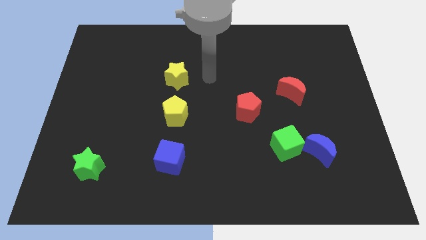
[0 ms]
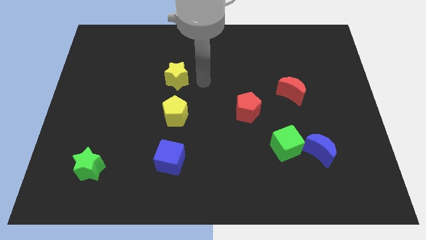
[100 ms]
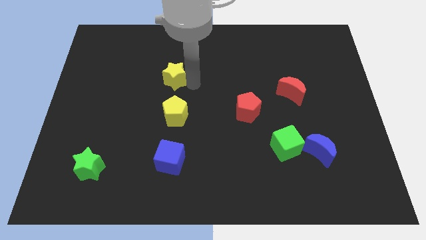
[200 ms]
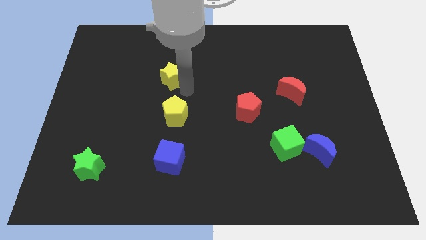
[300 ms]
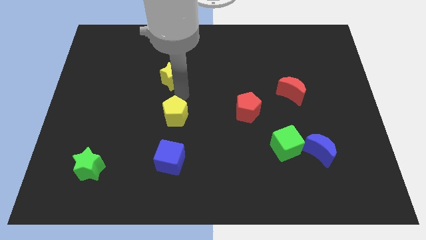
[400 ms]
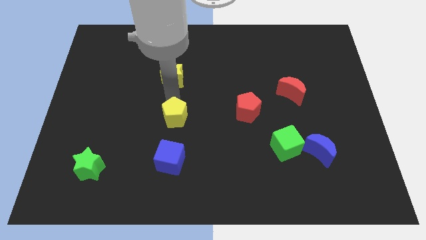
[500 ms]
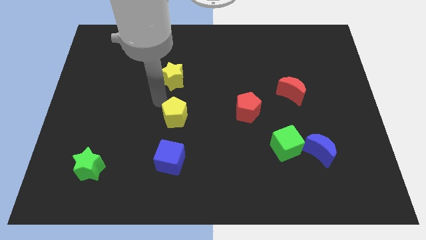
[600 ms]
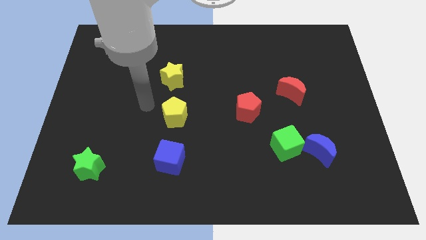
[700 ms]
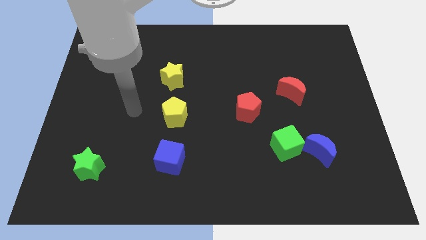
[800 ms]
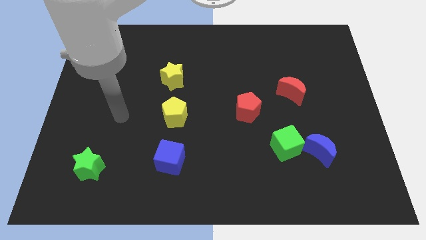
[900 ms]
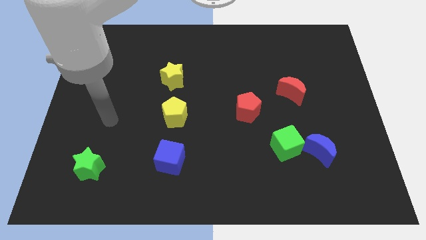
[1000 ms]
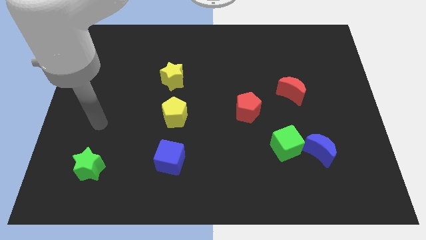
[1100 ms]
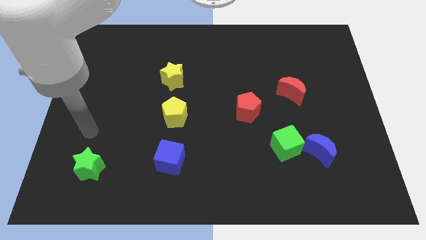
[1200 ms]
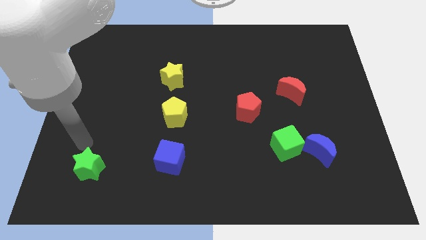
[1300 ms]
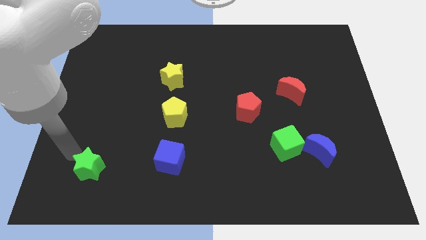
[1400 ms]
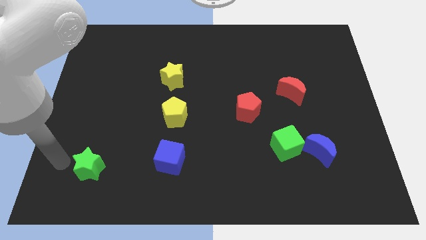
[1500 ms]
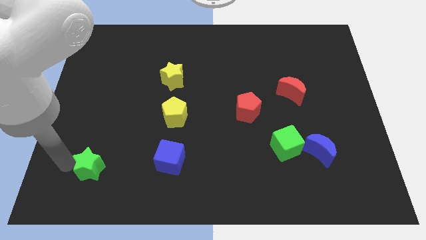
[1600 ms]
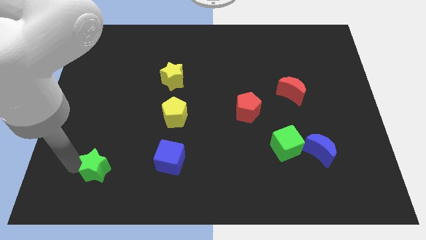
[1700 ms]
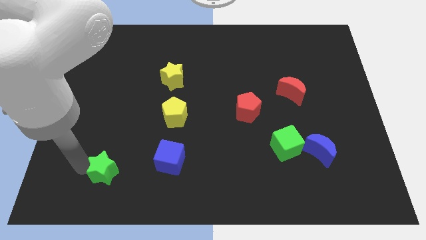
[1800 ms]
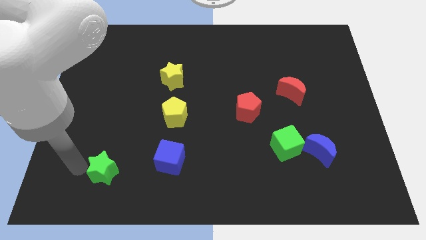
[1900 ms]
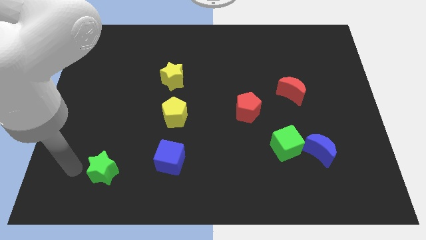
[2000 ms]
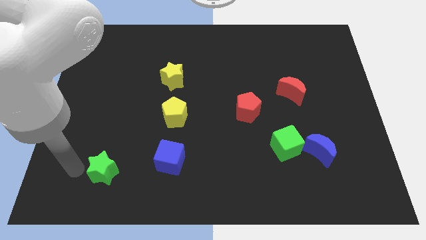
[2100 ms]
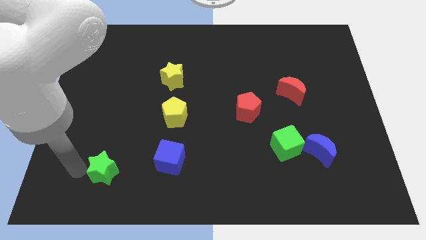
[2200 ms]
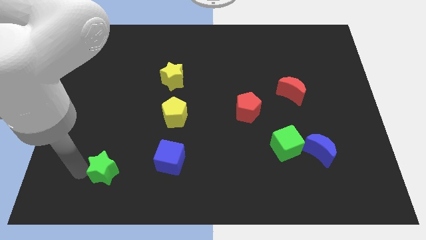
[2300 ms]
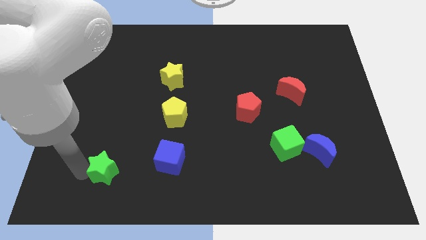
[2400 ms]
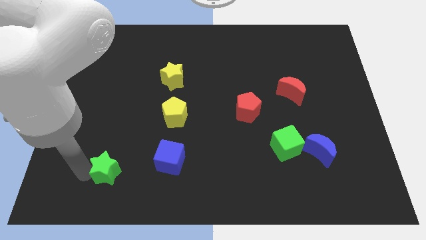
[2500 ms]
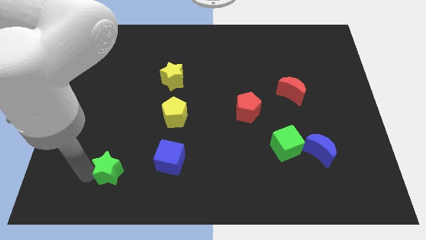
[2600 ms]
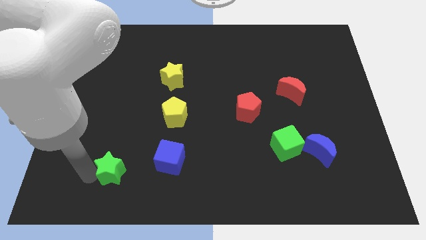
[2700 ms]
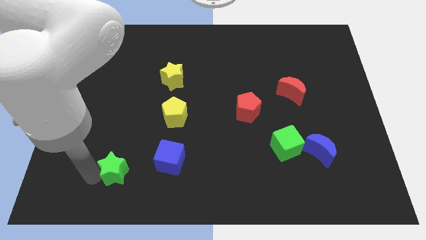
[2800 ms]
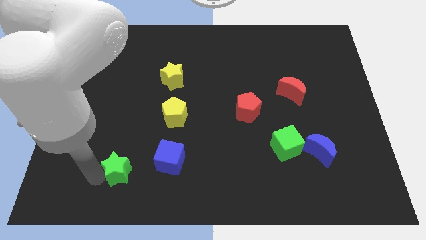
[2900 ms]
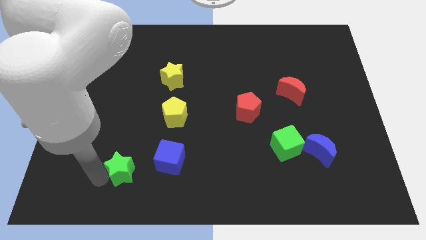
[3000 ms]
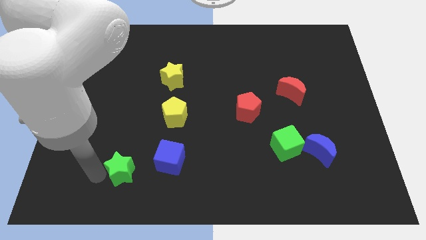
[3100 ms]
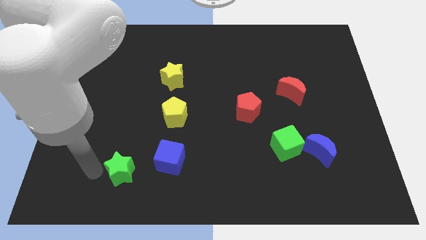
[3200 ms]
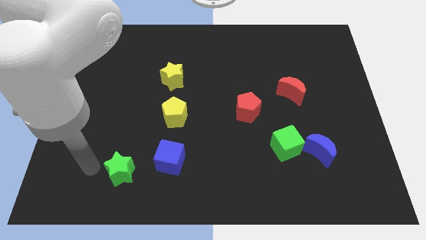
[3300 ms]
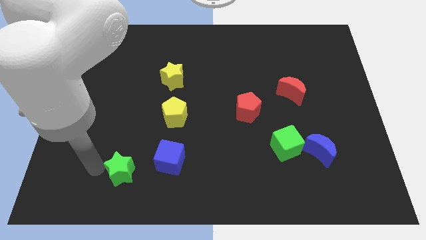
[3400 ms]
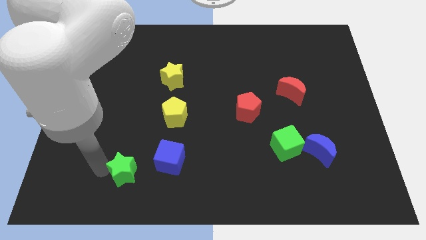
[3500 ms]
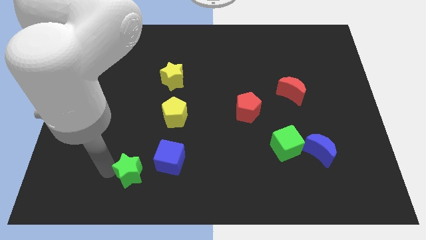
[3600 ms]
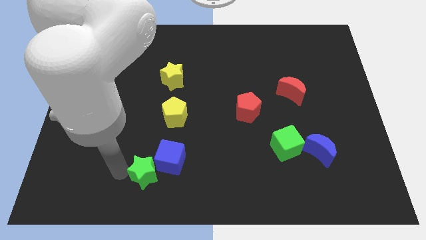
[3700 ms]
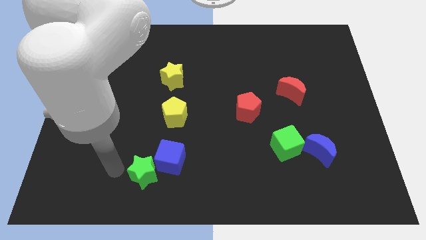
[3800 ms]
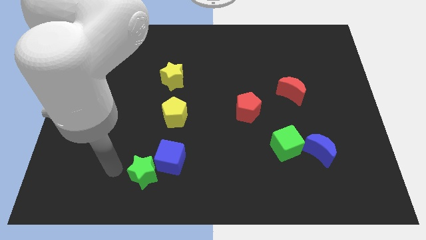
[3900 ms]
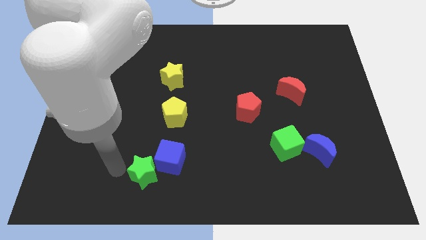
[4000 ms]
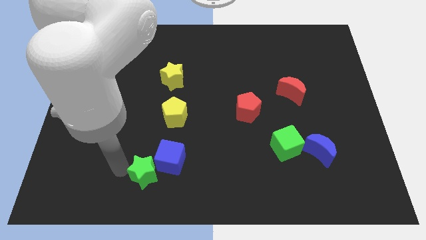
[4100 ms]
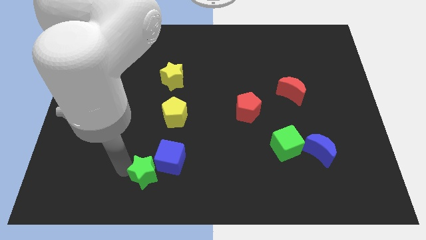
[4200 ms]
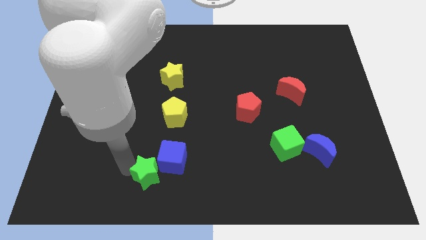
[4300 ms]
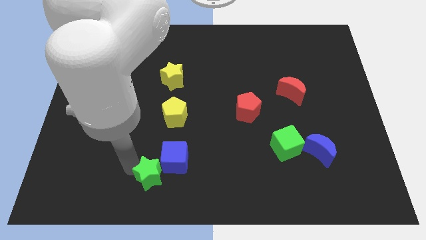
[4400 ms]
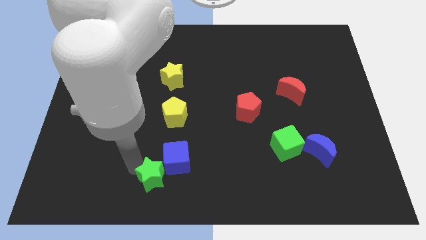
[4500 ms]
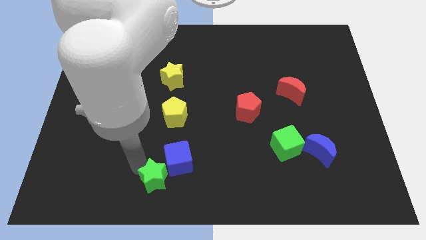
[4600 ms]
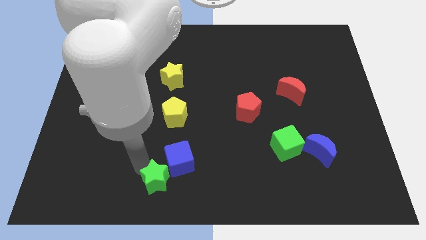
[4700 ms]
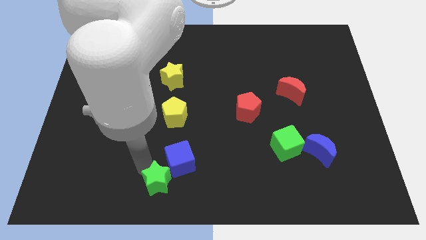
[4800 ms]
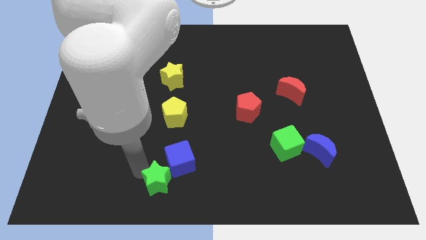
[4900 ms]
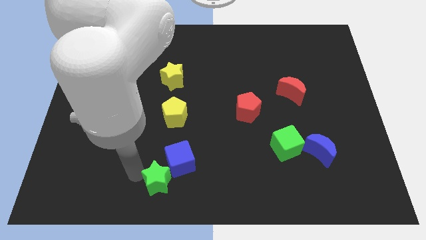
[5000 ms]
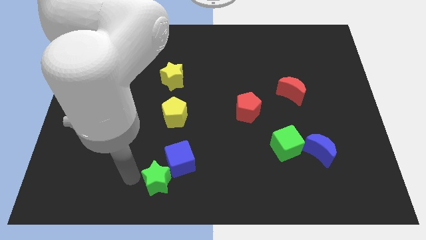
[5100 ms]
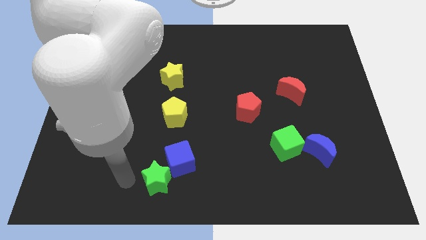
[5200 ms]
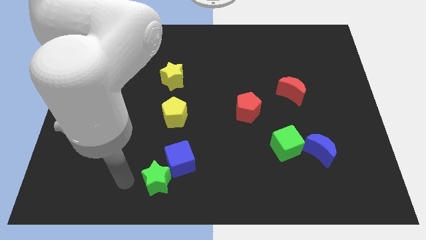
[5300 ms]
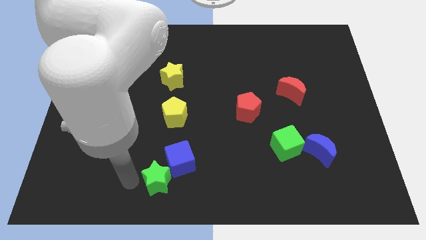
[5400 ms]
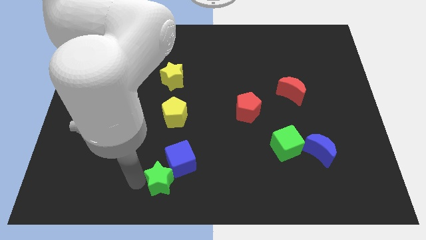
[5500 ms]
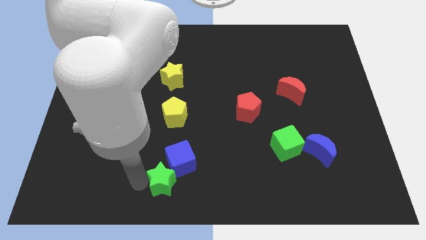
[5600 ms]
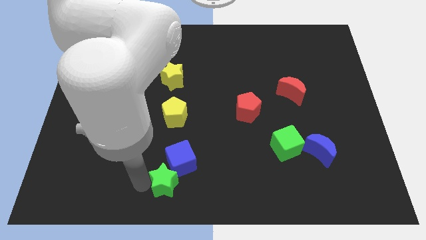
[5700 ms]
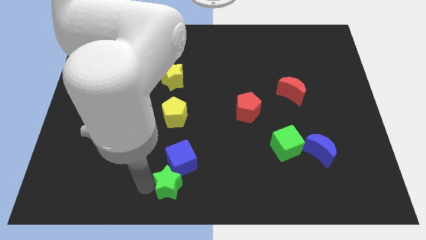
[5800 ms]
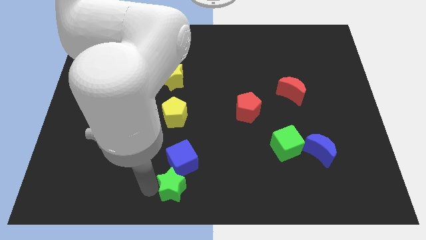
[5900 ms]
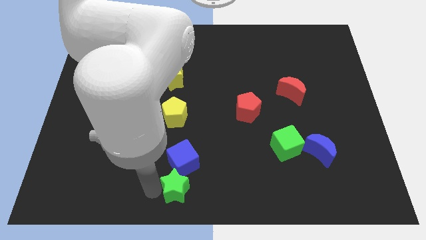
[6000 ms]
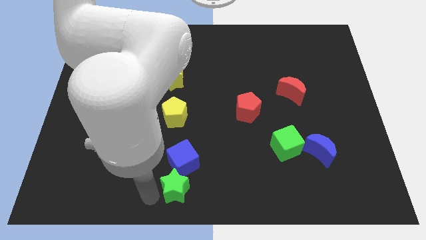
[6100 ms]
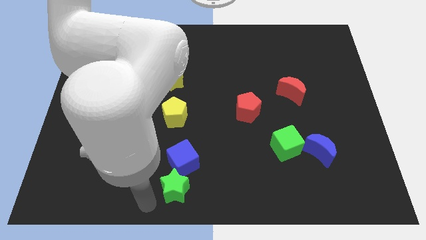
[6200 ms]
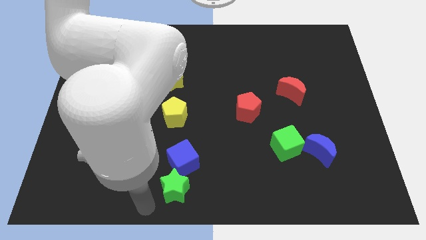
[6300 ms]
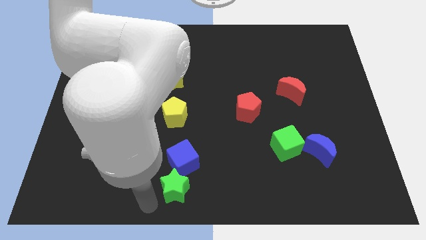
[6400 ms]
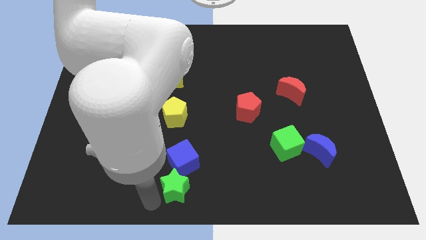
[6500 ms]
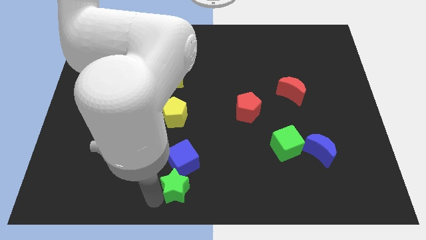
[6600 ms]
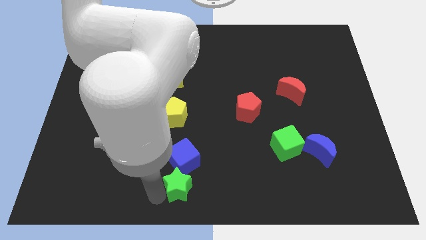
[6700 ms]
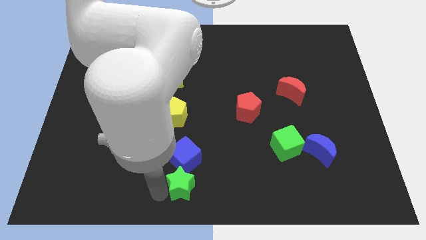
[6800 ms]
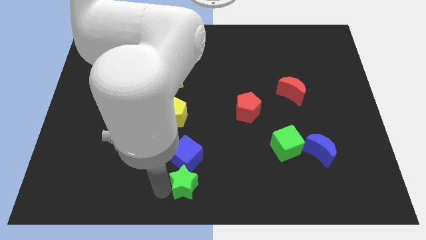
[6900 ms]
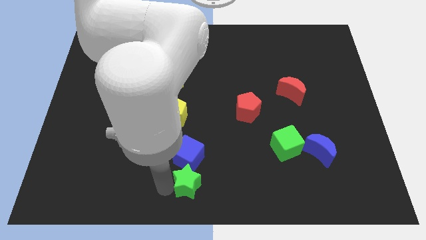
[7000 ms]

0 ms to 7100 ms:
slide the green star to the right

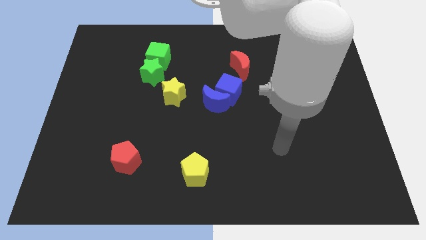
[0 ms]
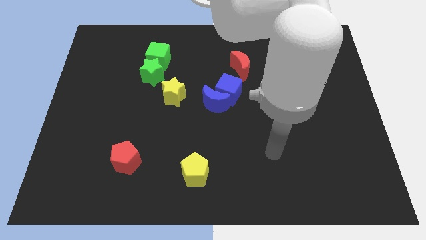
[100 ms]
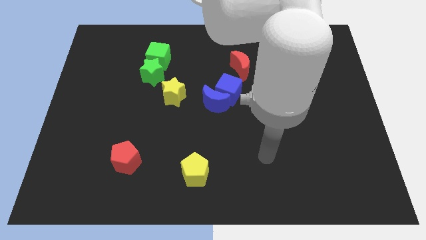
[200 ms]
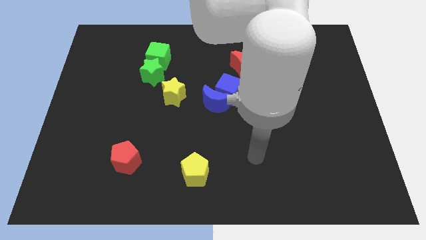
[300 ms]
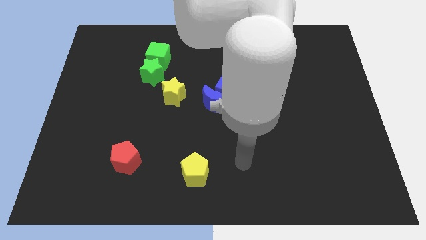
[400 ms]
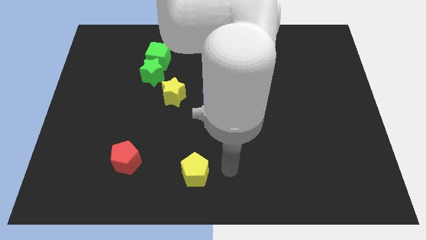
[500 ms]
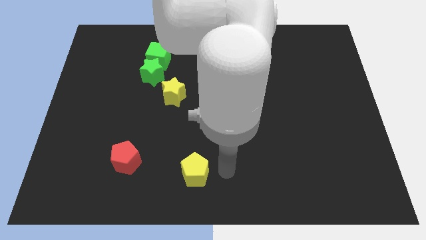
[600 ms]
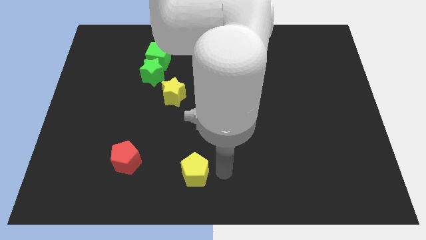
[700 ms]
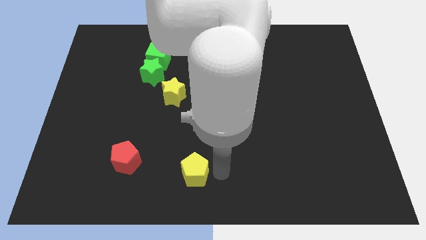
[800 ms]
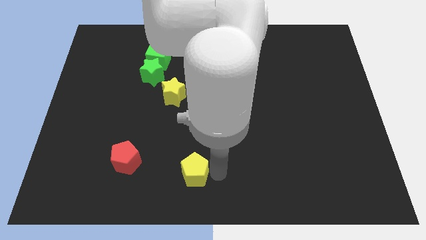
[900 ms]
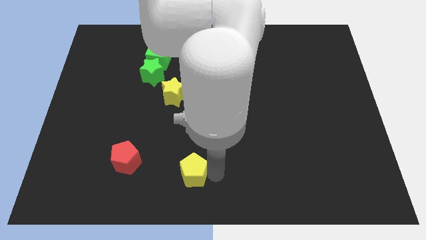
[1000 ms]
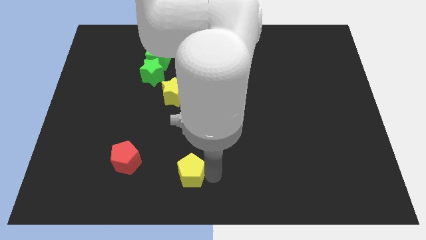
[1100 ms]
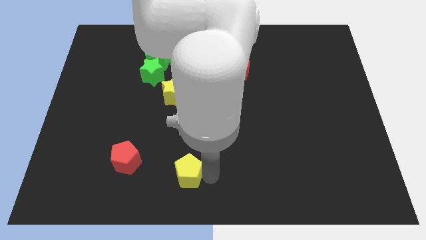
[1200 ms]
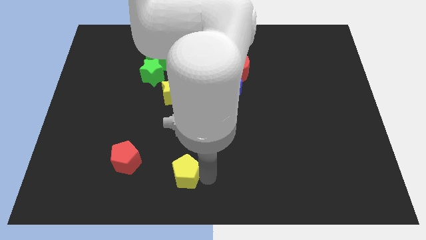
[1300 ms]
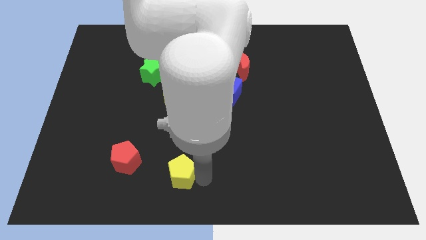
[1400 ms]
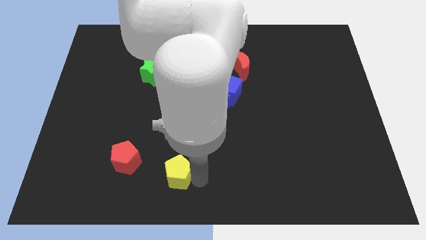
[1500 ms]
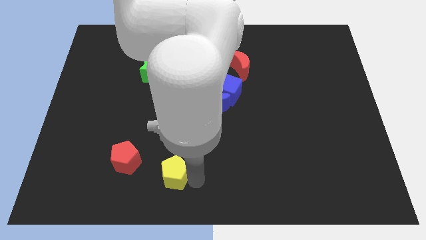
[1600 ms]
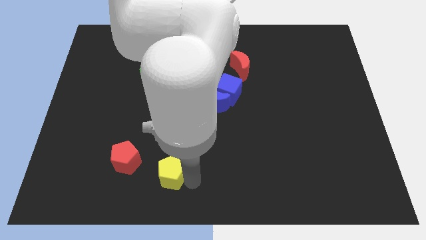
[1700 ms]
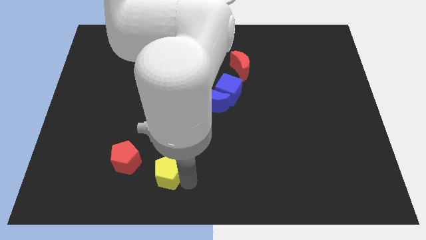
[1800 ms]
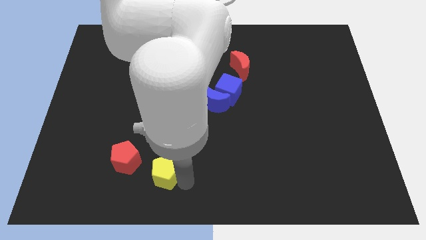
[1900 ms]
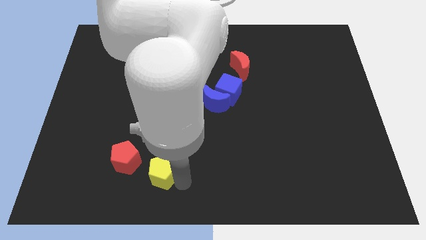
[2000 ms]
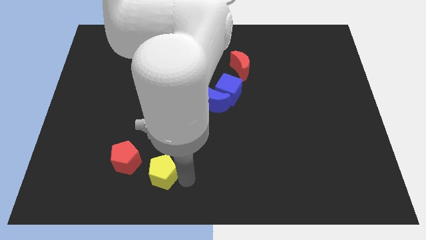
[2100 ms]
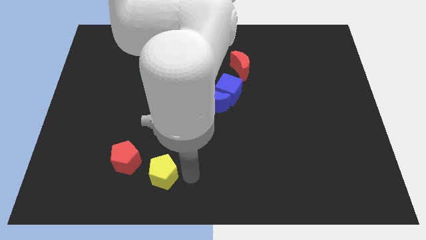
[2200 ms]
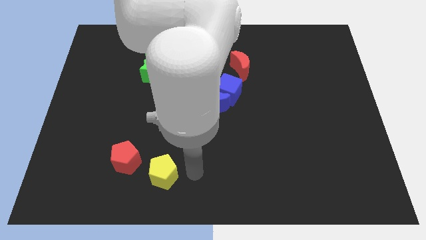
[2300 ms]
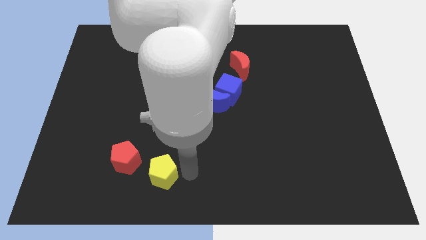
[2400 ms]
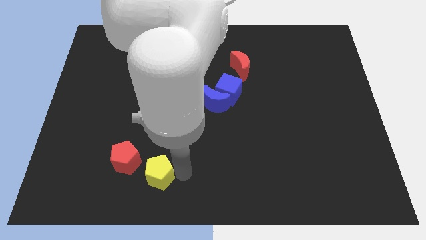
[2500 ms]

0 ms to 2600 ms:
slide the yellow pentagon slightly left
